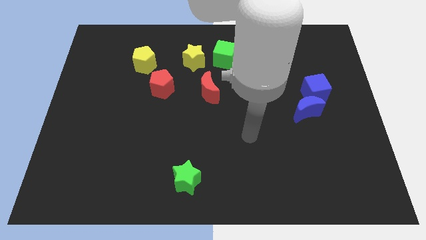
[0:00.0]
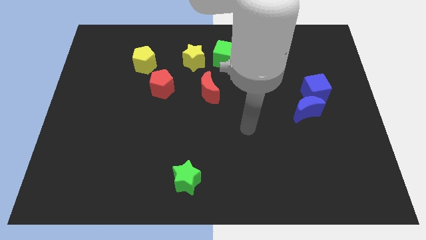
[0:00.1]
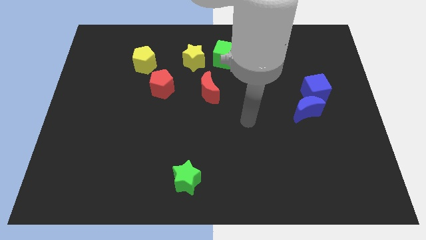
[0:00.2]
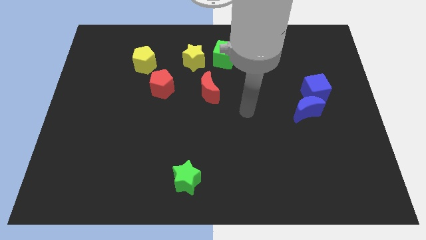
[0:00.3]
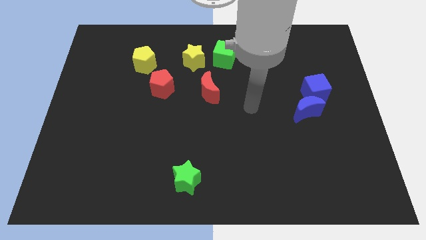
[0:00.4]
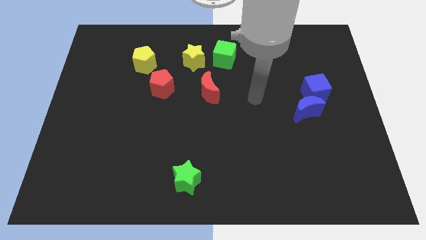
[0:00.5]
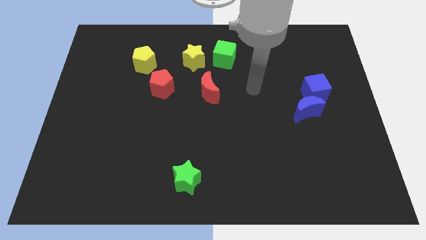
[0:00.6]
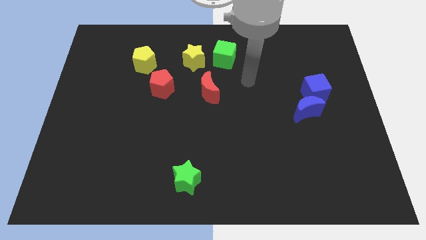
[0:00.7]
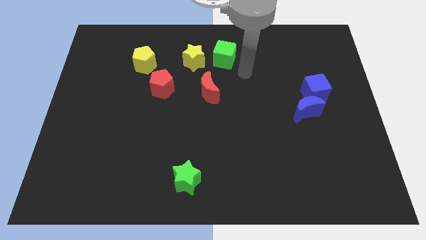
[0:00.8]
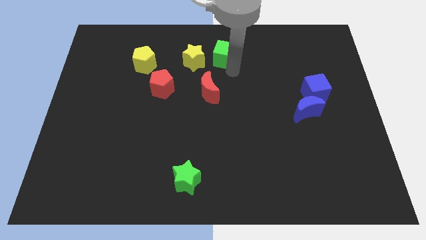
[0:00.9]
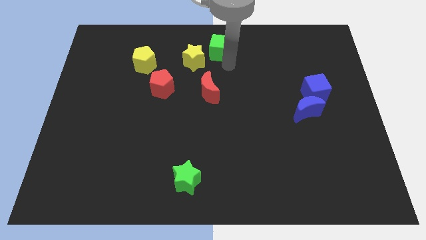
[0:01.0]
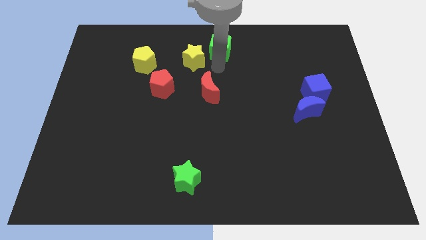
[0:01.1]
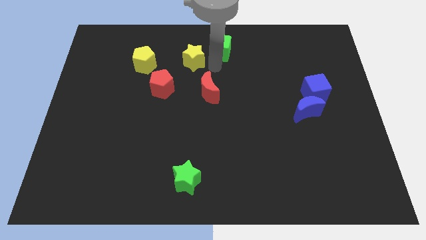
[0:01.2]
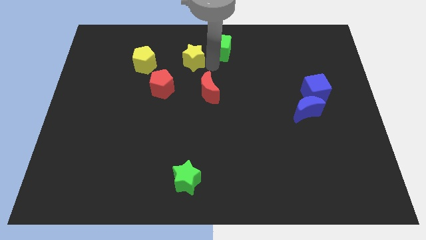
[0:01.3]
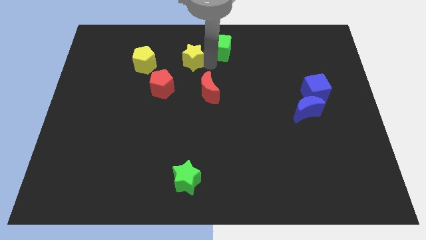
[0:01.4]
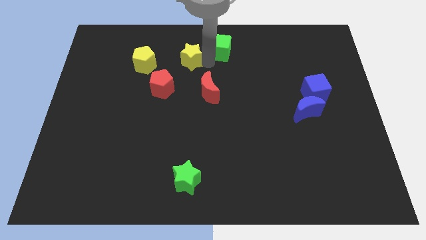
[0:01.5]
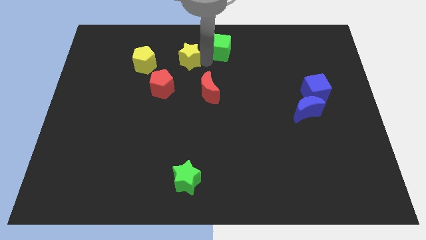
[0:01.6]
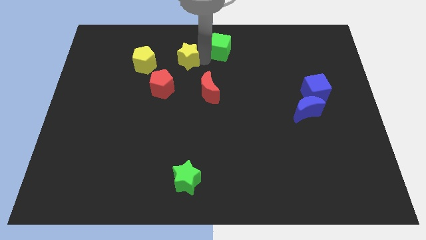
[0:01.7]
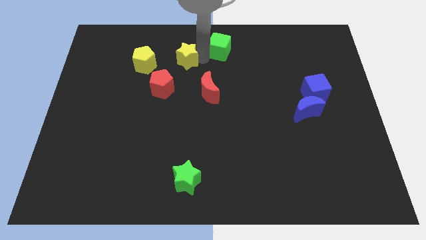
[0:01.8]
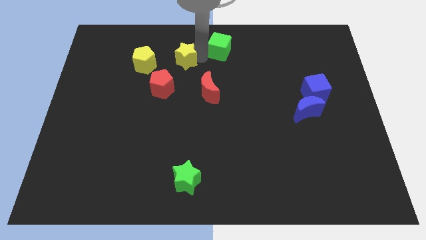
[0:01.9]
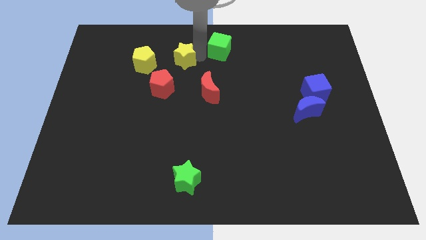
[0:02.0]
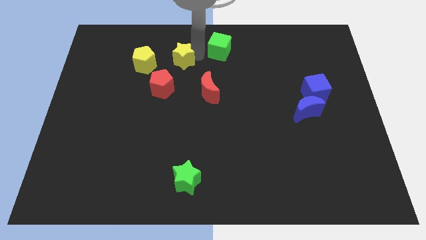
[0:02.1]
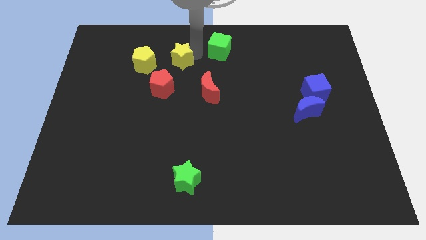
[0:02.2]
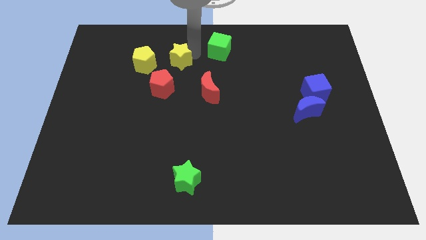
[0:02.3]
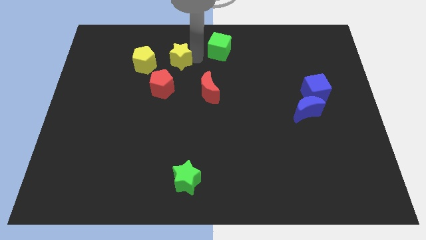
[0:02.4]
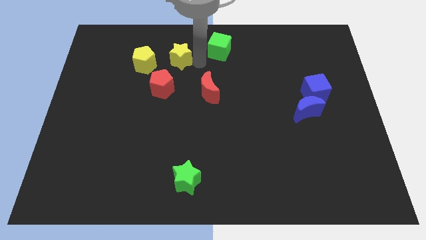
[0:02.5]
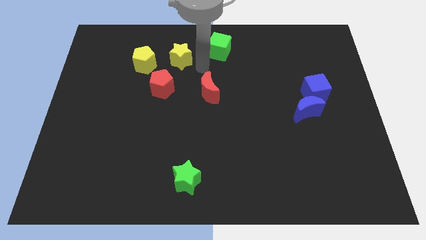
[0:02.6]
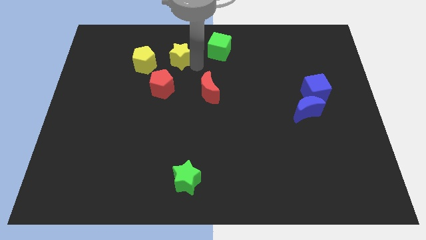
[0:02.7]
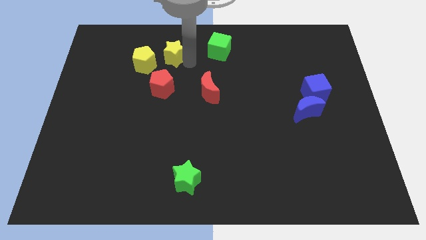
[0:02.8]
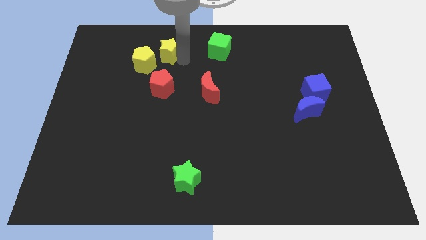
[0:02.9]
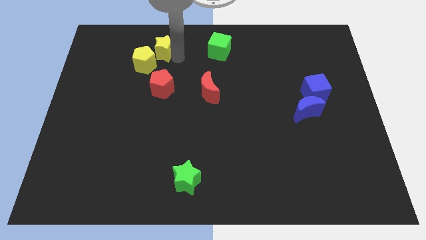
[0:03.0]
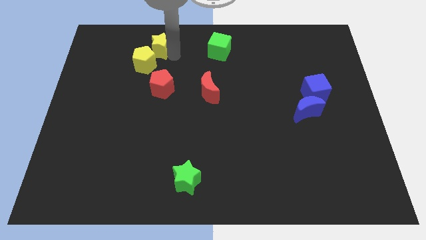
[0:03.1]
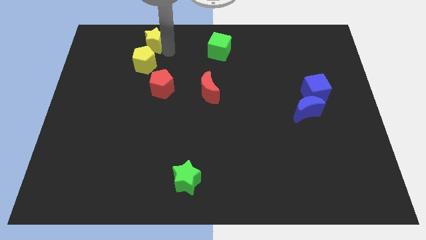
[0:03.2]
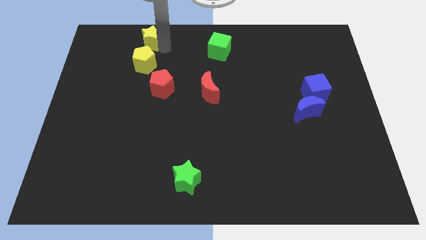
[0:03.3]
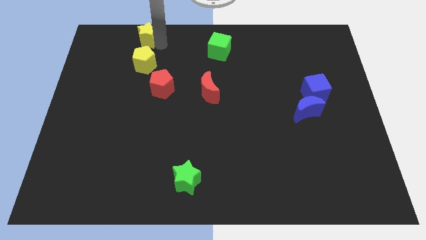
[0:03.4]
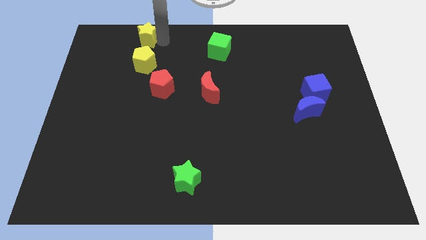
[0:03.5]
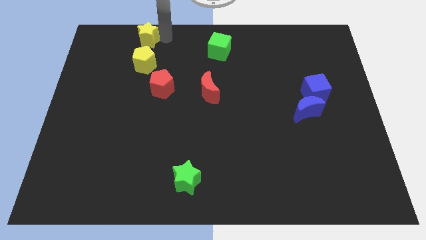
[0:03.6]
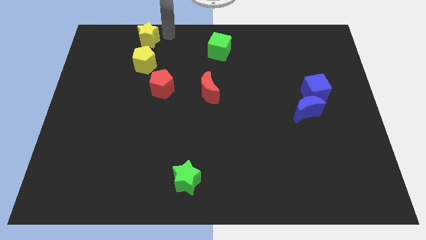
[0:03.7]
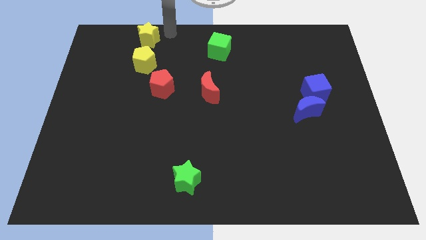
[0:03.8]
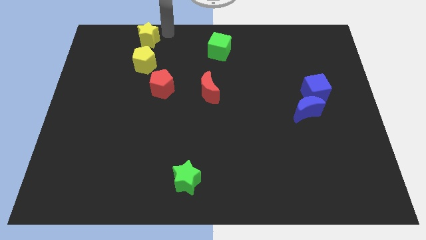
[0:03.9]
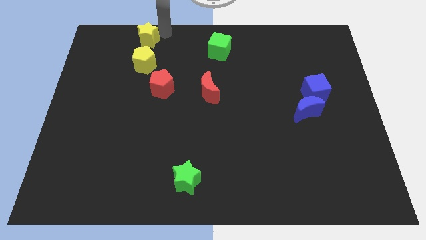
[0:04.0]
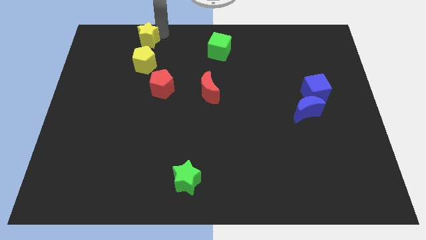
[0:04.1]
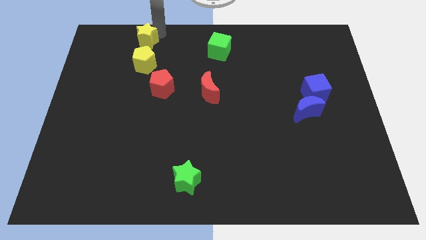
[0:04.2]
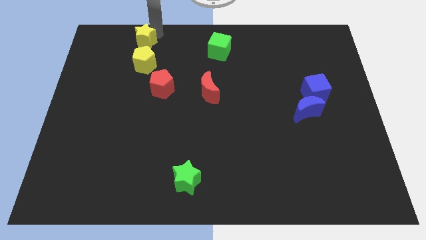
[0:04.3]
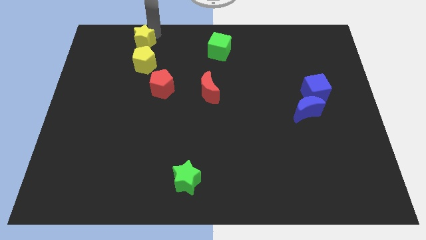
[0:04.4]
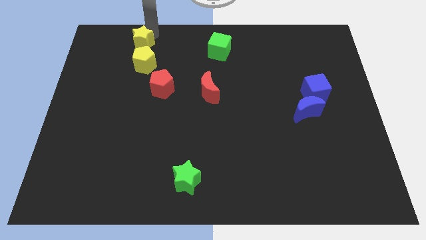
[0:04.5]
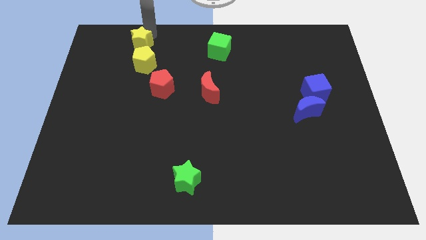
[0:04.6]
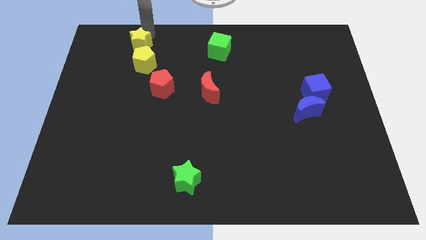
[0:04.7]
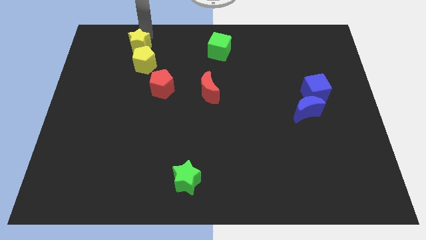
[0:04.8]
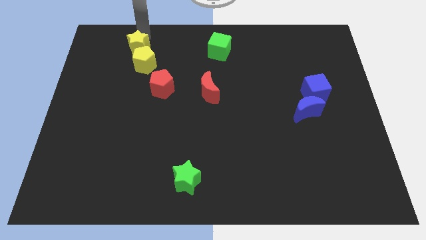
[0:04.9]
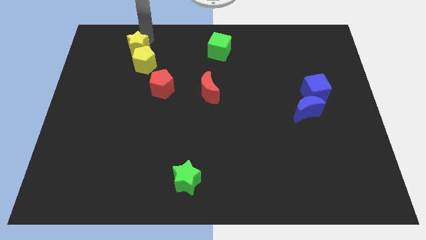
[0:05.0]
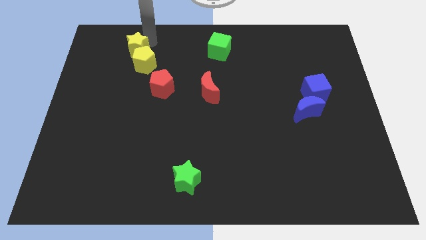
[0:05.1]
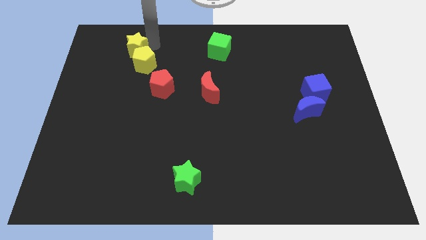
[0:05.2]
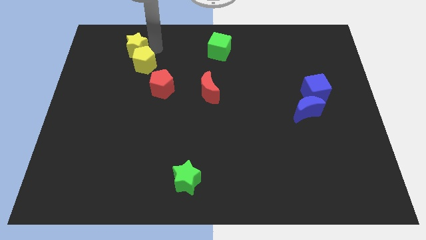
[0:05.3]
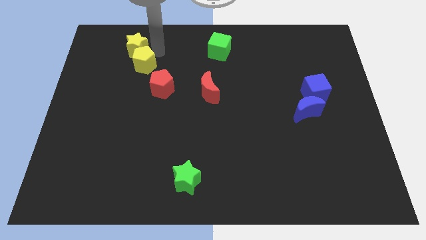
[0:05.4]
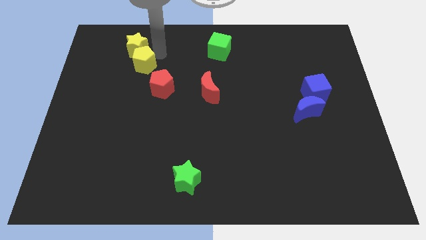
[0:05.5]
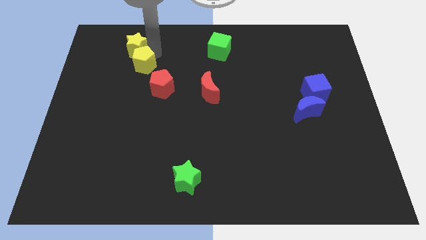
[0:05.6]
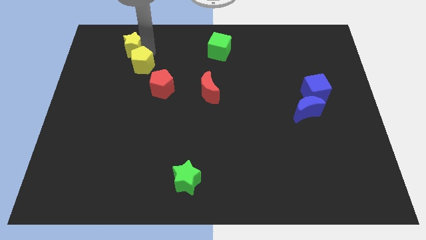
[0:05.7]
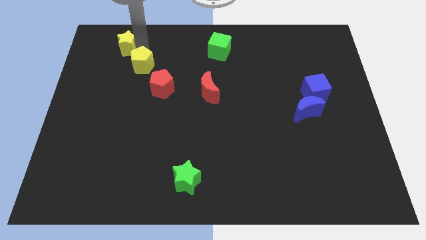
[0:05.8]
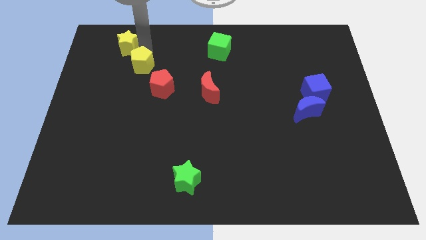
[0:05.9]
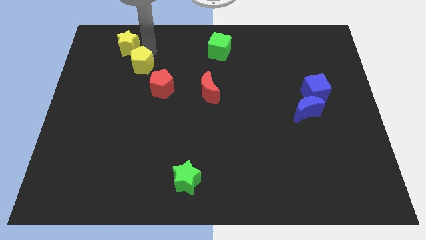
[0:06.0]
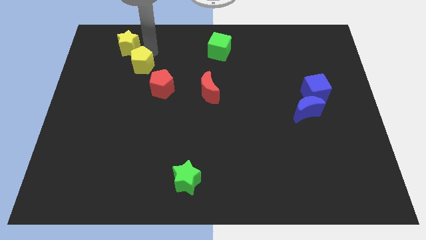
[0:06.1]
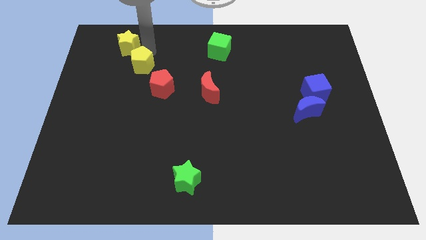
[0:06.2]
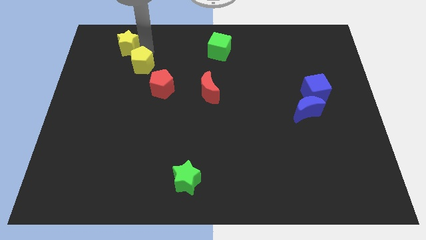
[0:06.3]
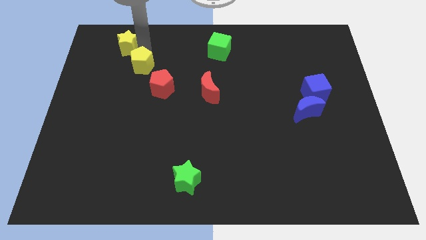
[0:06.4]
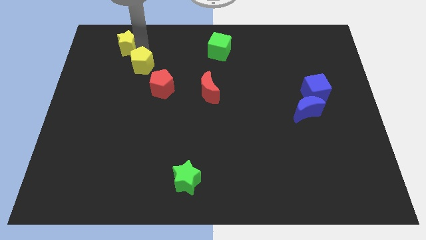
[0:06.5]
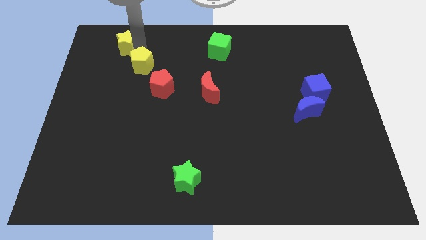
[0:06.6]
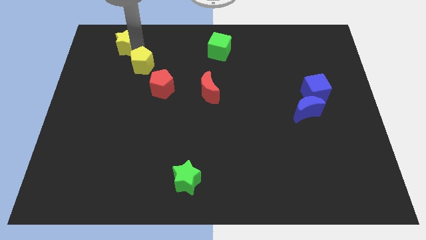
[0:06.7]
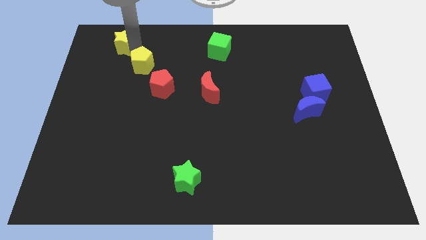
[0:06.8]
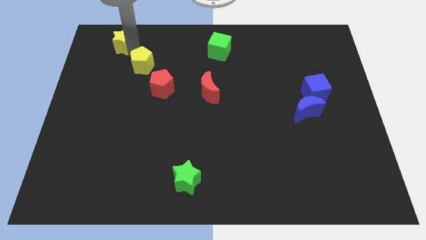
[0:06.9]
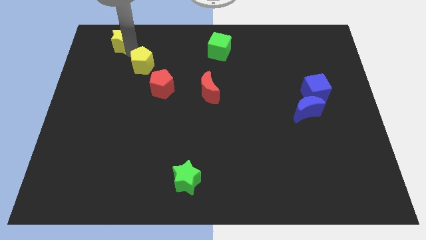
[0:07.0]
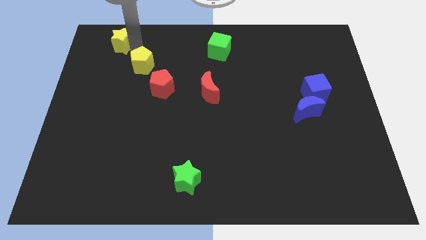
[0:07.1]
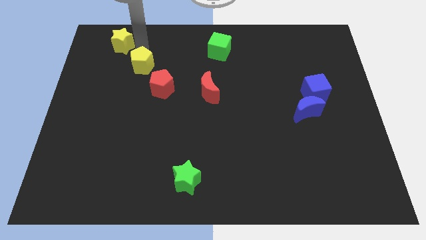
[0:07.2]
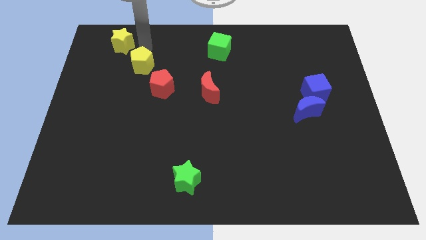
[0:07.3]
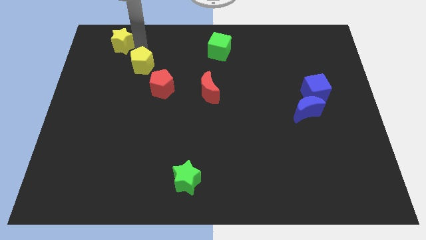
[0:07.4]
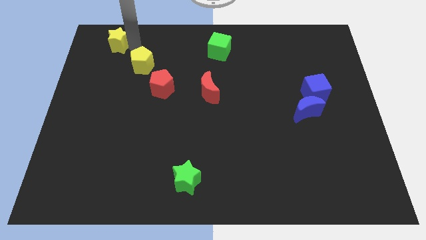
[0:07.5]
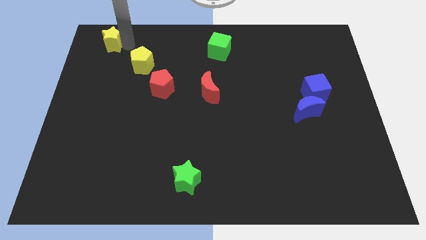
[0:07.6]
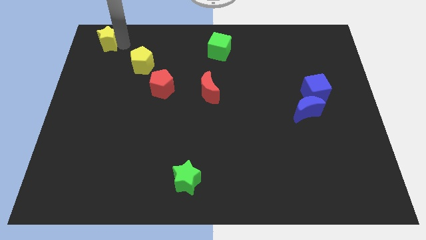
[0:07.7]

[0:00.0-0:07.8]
slide the yellow star to the top left of the board
